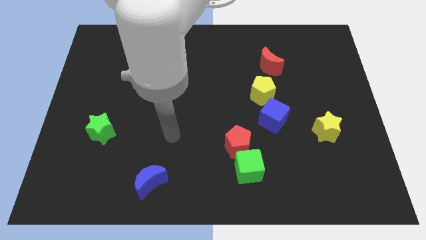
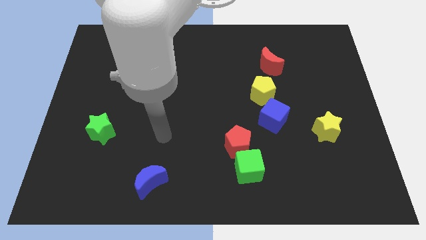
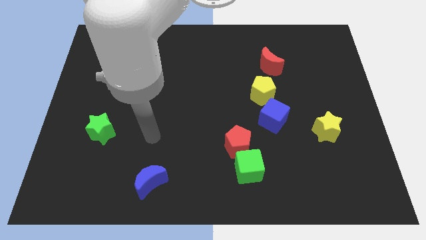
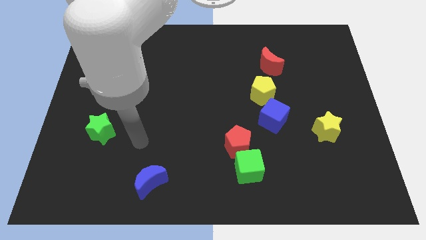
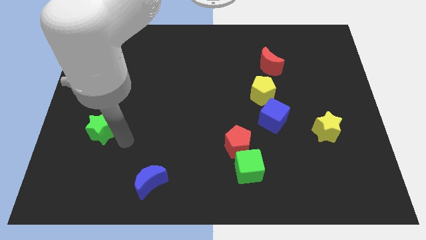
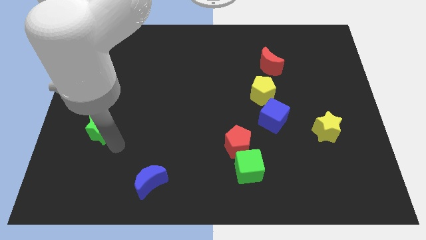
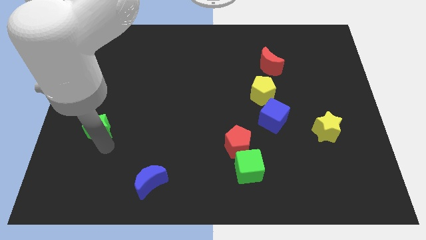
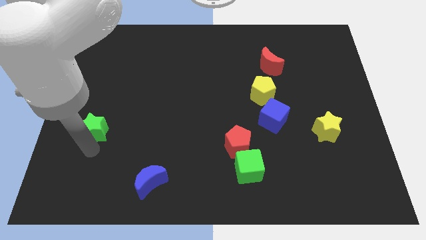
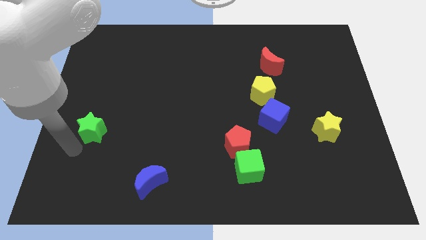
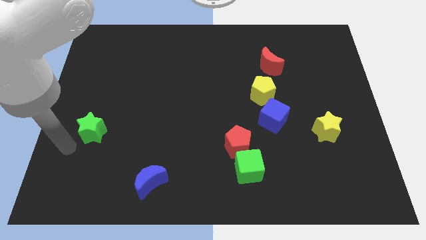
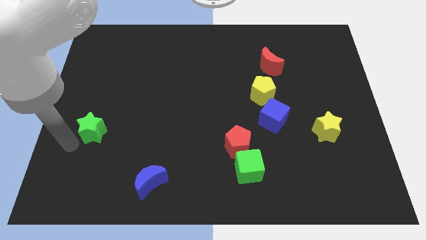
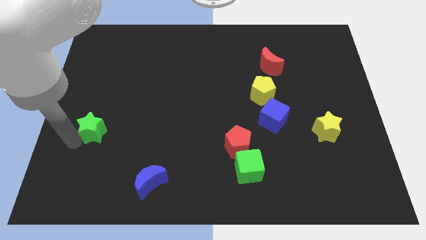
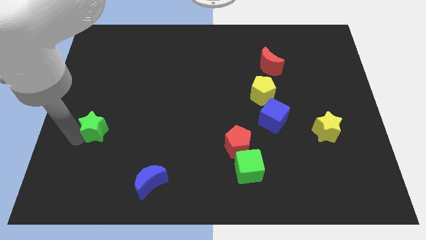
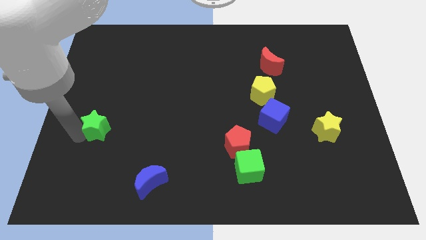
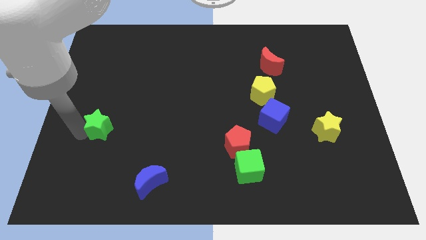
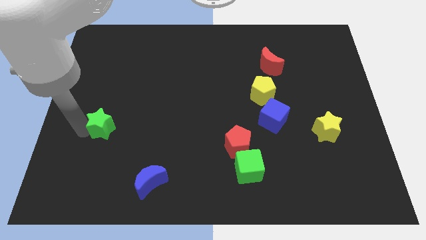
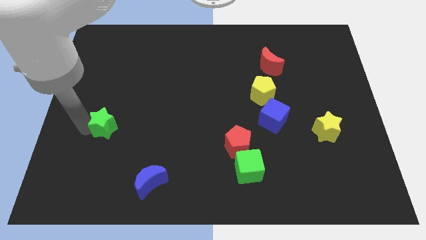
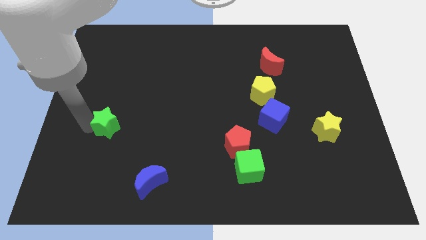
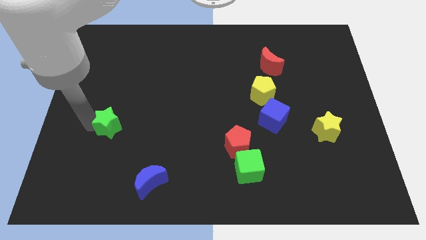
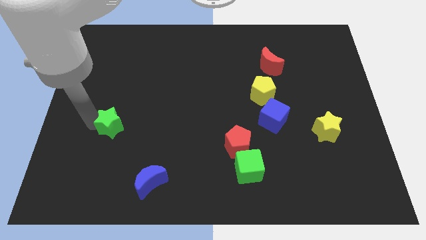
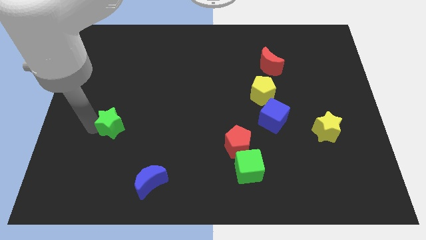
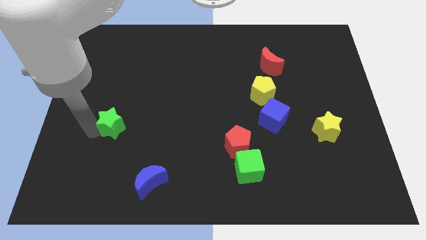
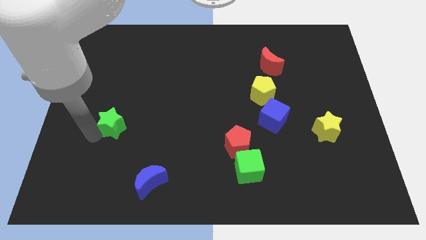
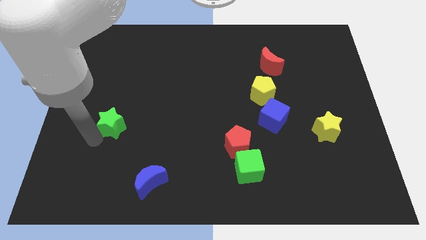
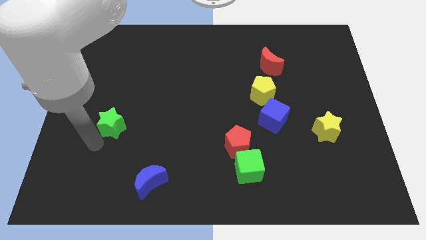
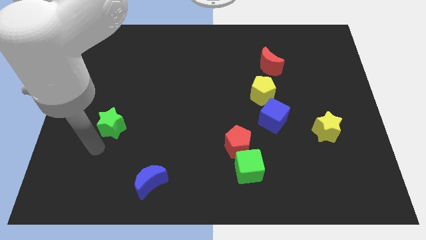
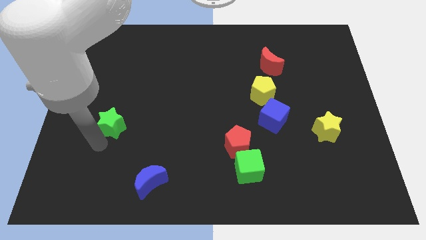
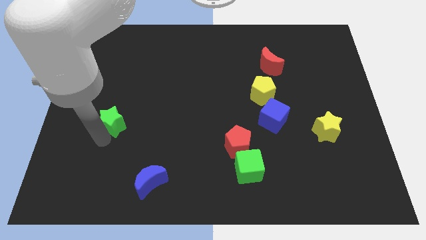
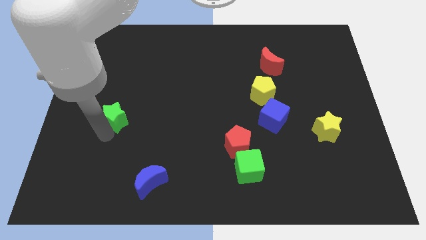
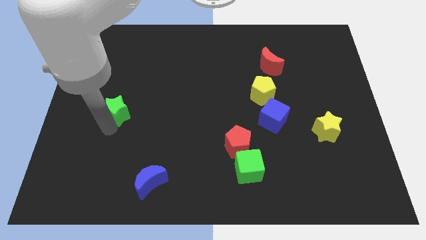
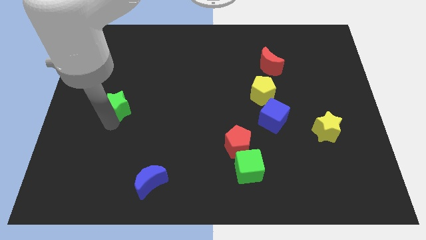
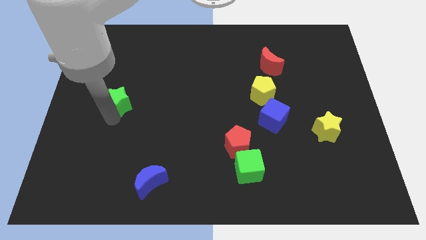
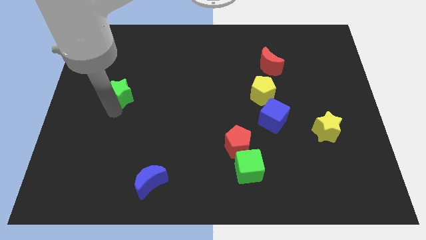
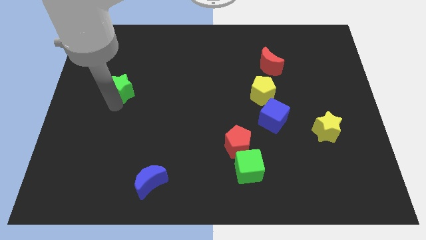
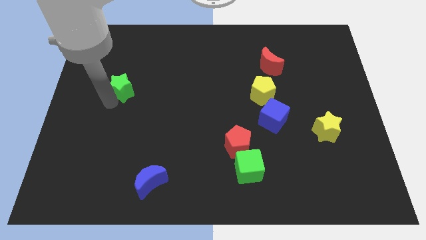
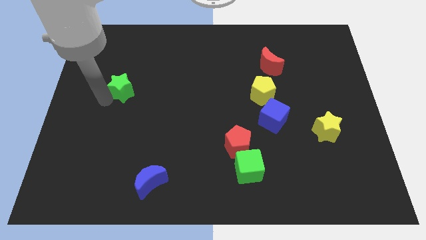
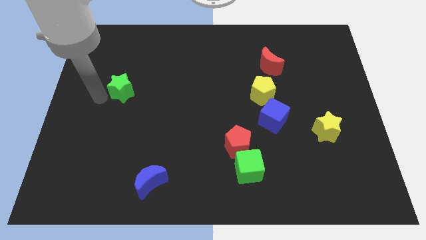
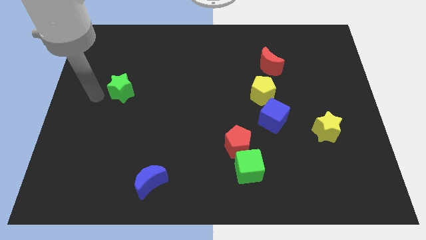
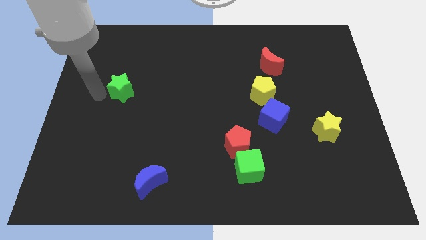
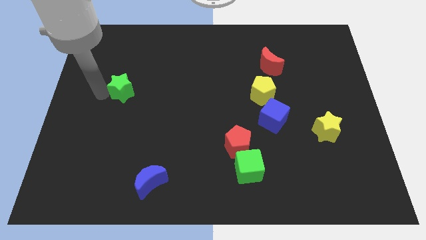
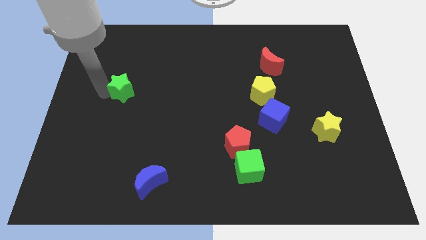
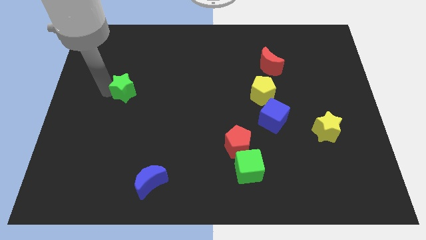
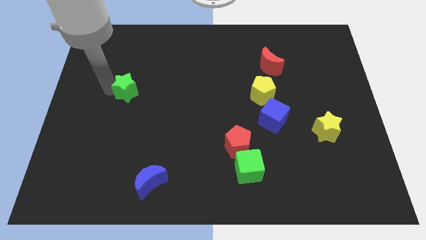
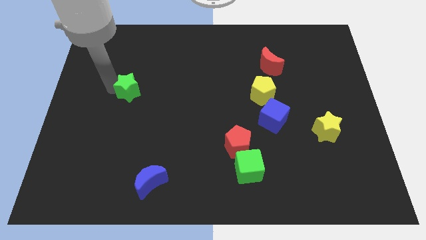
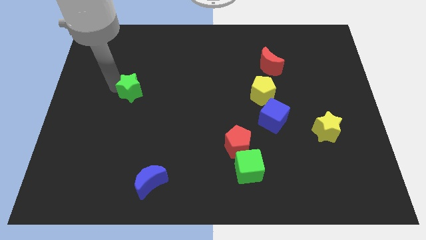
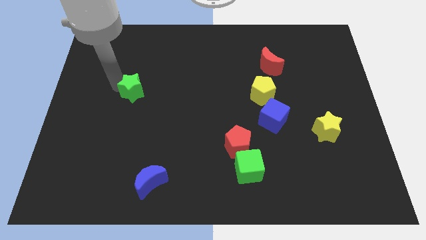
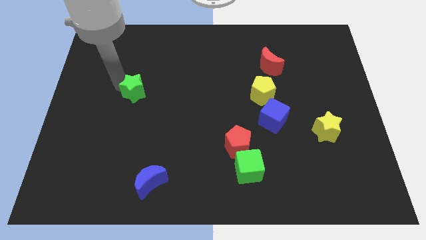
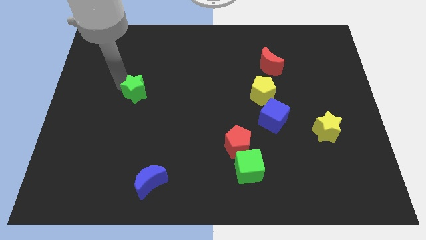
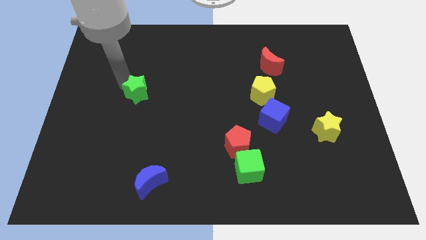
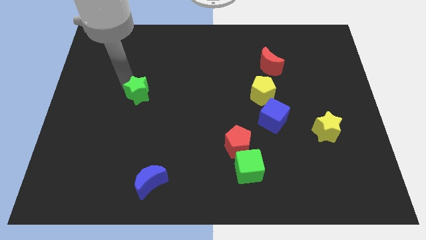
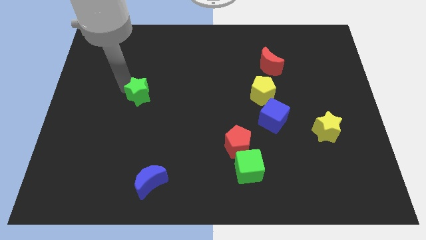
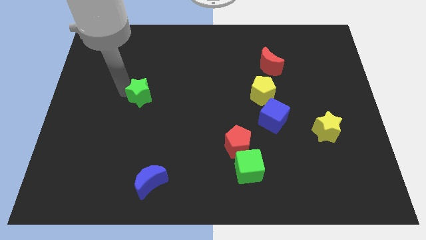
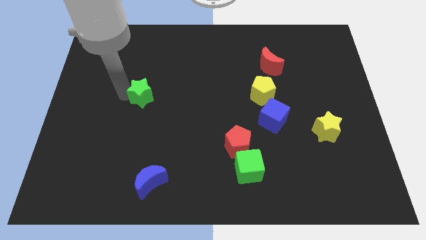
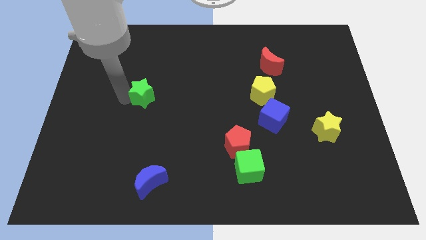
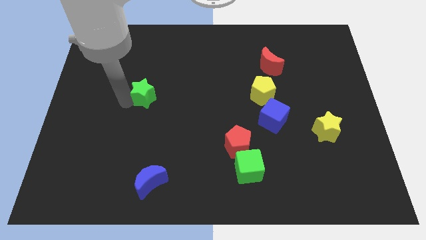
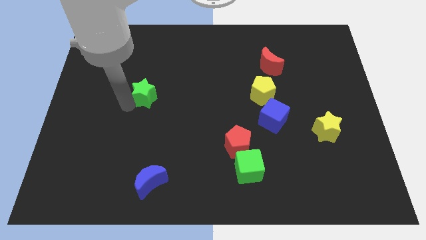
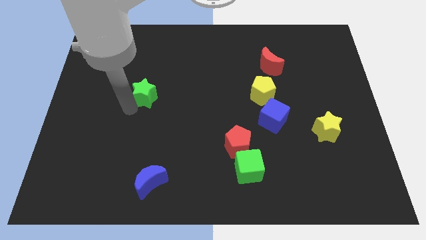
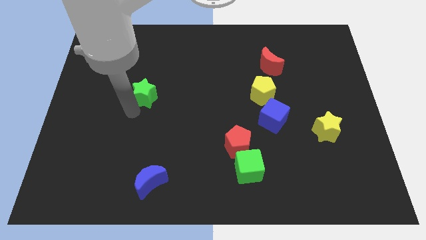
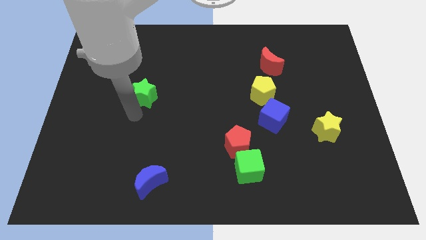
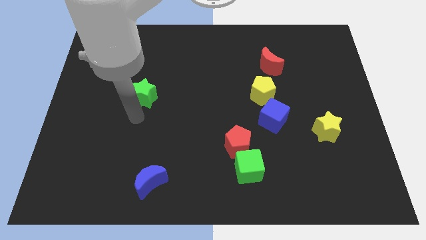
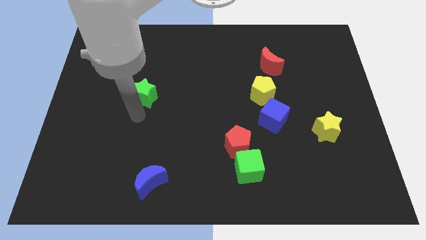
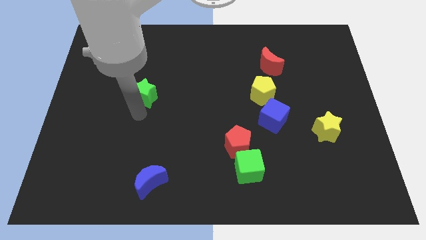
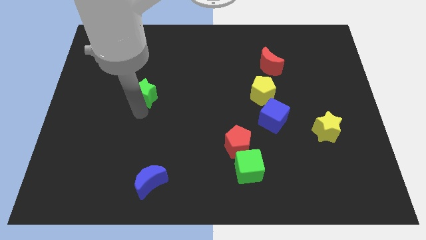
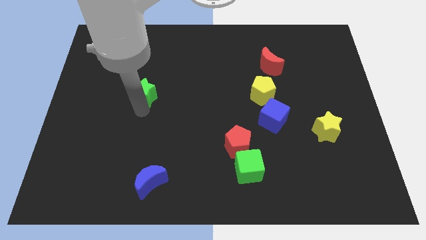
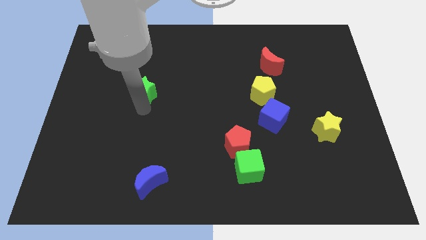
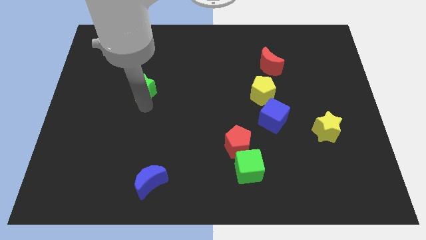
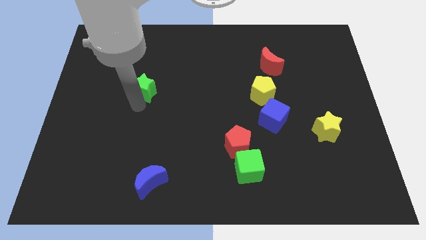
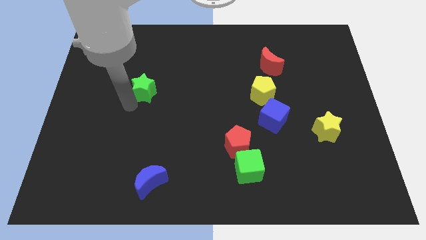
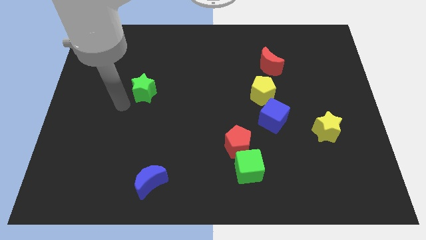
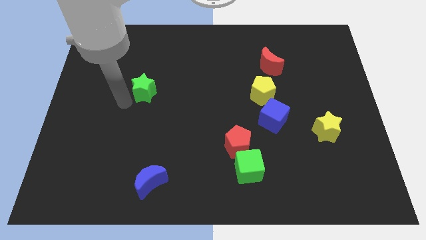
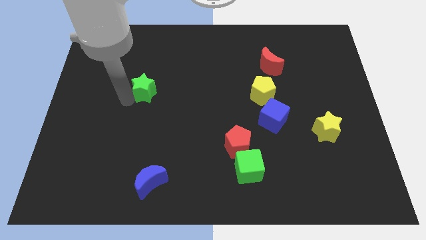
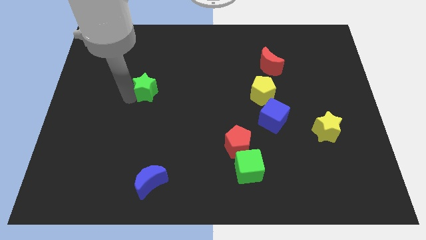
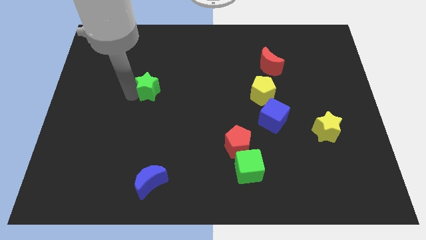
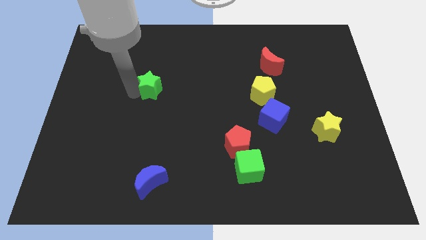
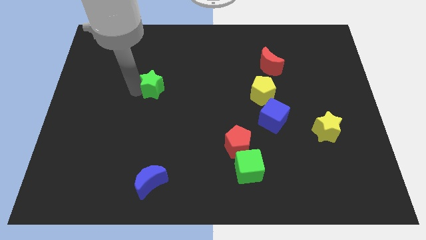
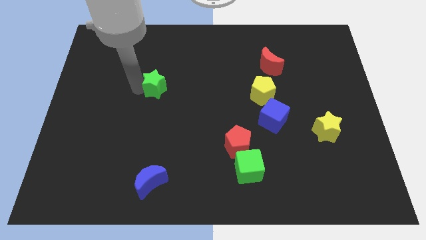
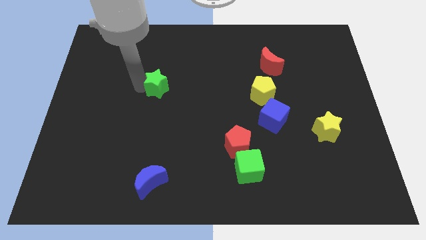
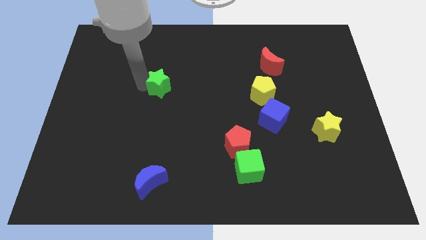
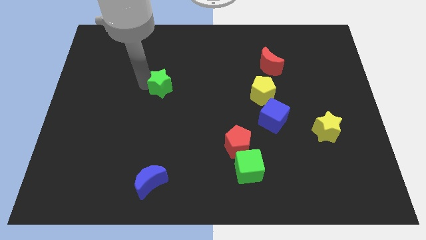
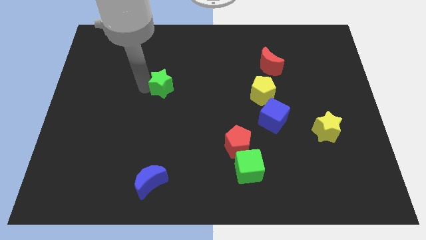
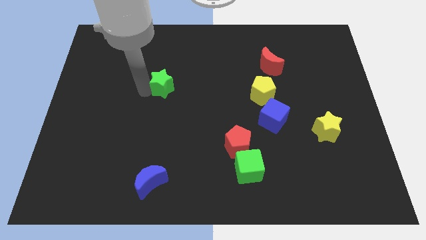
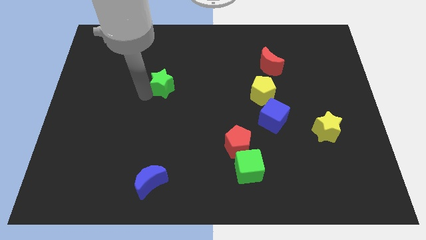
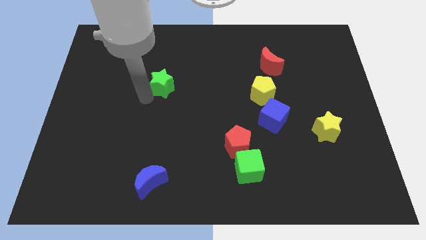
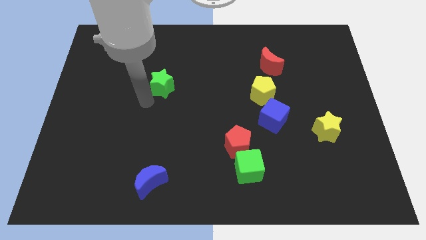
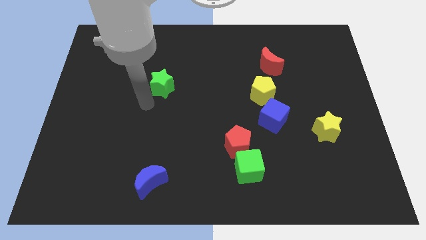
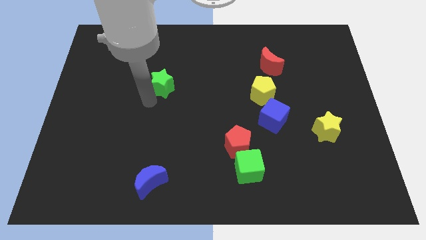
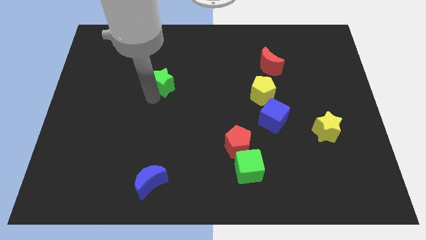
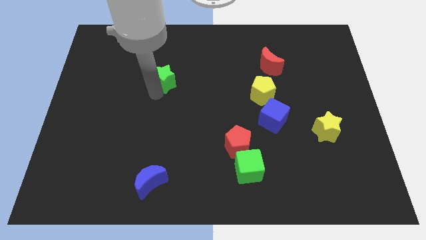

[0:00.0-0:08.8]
slide the green star upwards and then right
